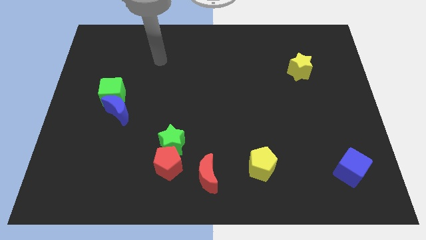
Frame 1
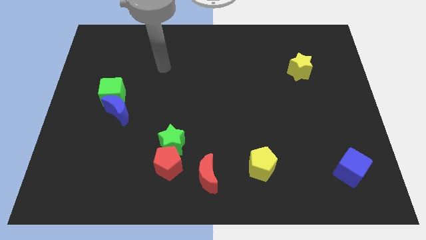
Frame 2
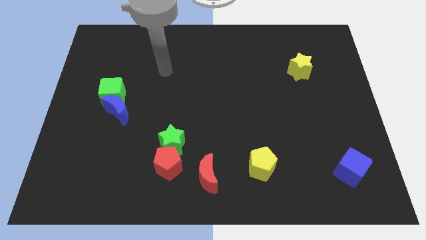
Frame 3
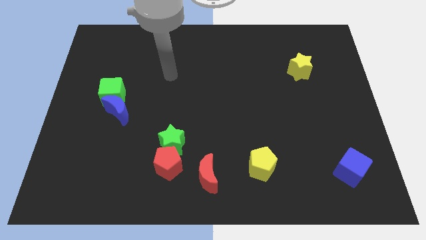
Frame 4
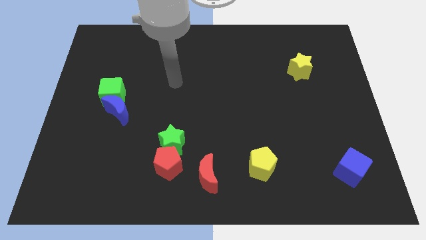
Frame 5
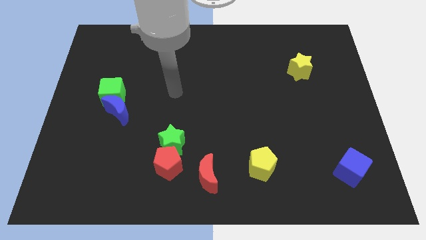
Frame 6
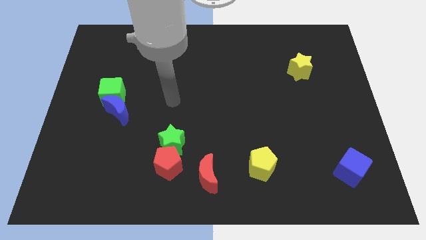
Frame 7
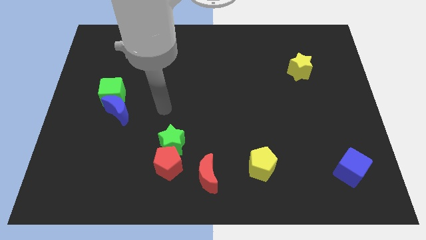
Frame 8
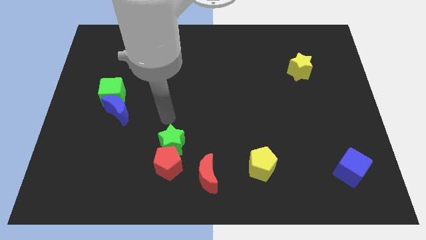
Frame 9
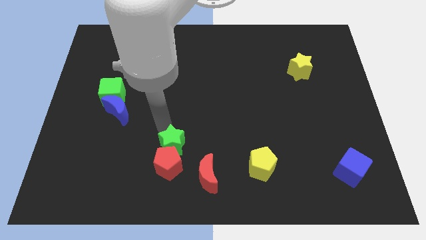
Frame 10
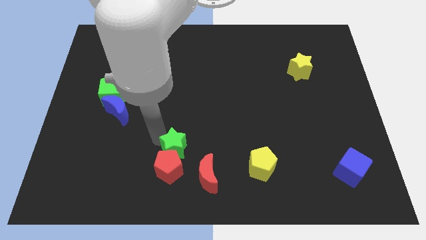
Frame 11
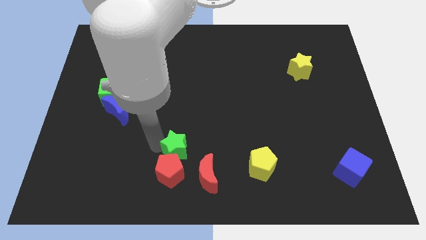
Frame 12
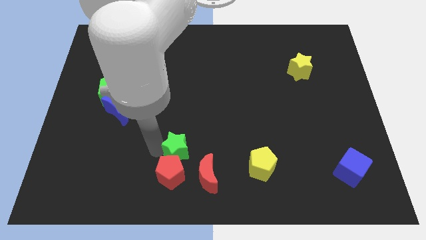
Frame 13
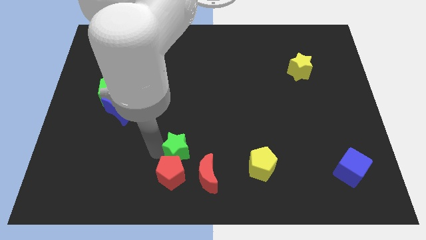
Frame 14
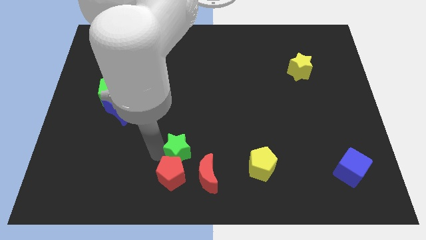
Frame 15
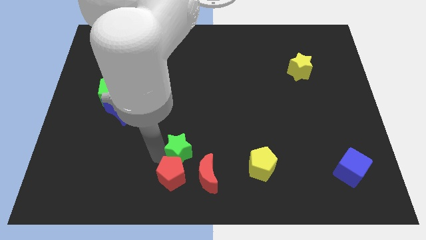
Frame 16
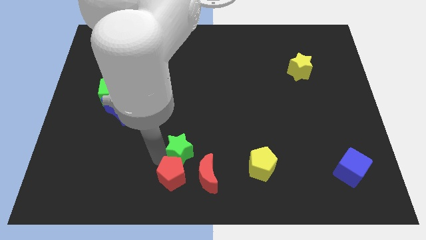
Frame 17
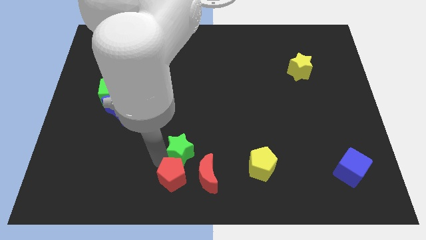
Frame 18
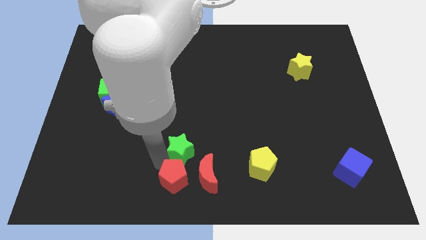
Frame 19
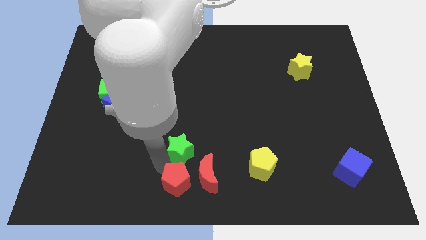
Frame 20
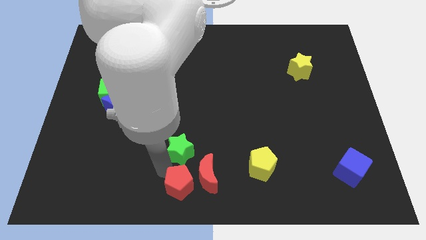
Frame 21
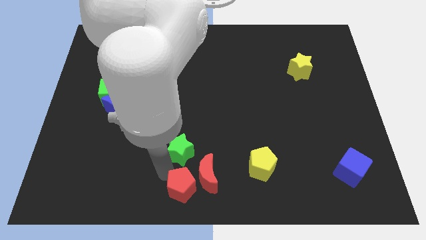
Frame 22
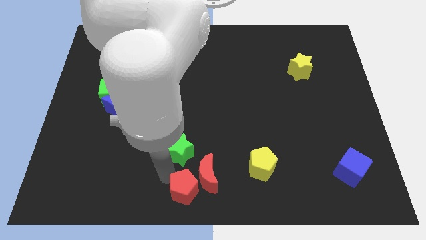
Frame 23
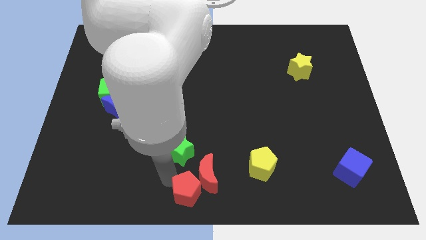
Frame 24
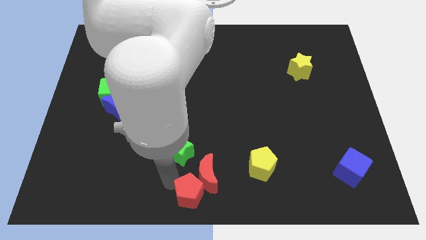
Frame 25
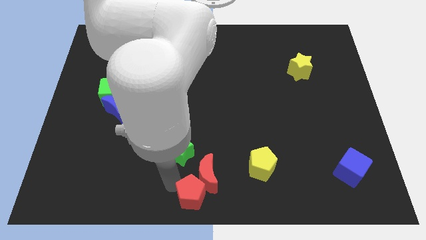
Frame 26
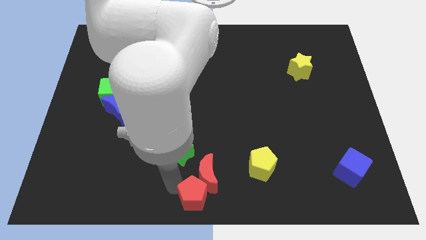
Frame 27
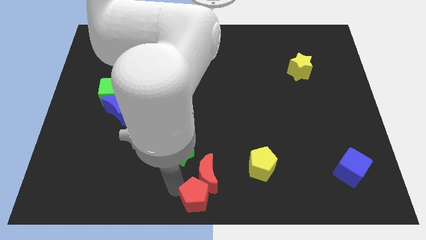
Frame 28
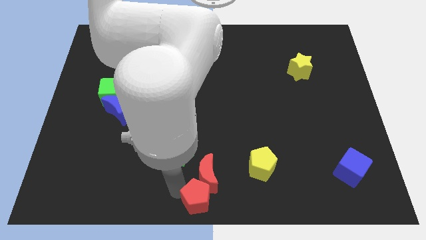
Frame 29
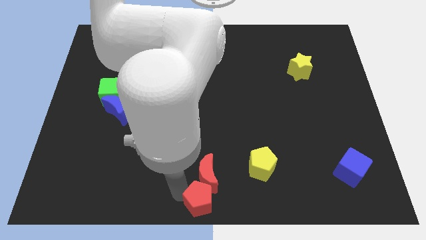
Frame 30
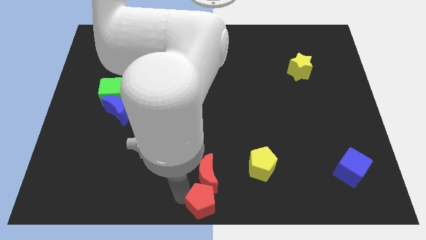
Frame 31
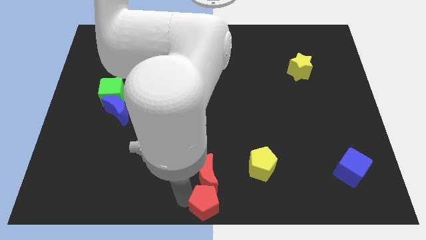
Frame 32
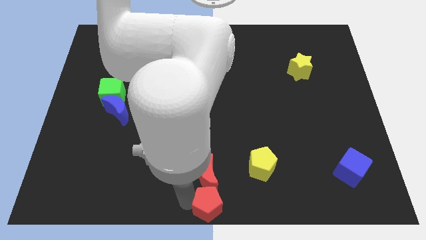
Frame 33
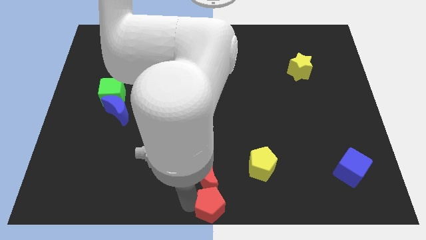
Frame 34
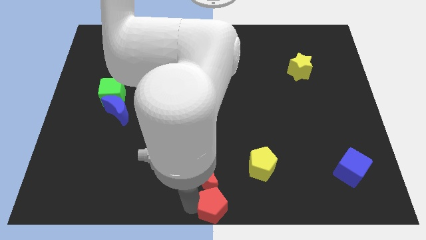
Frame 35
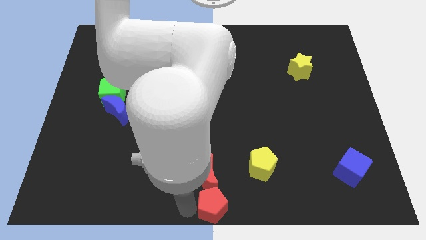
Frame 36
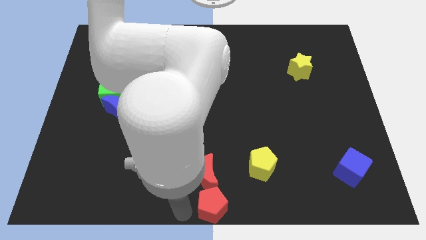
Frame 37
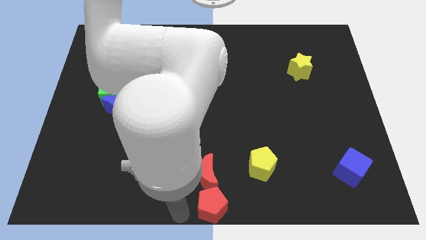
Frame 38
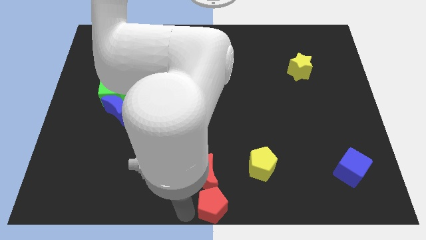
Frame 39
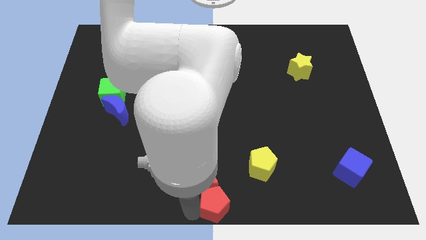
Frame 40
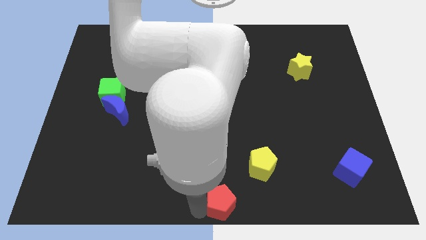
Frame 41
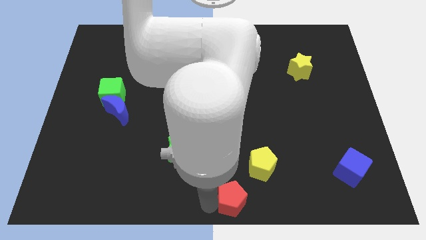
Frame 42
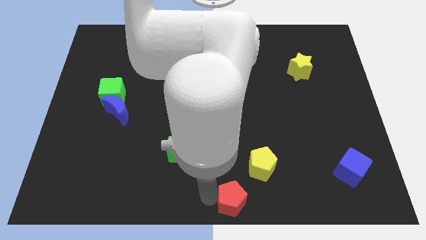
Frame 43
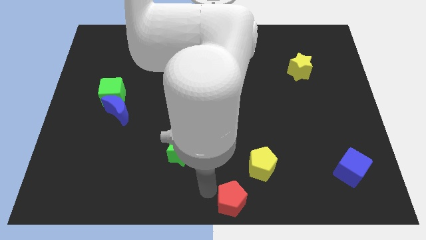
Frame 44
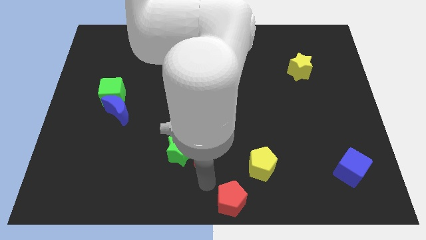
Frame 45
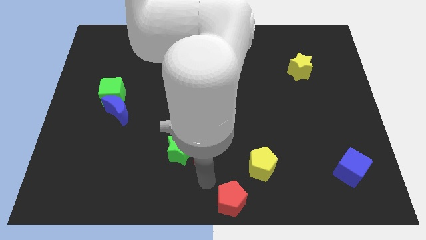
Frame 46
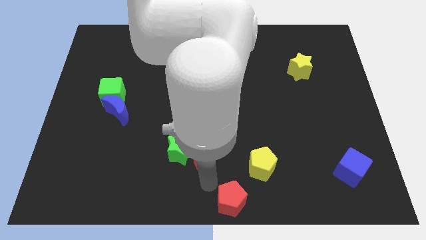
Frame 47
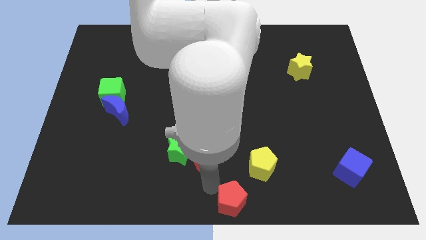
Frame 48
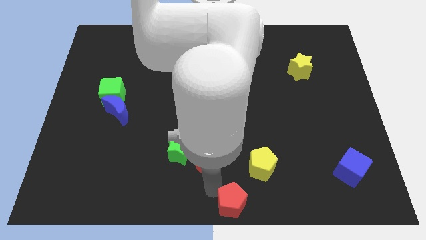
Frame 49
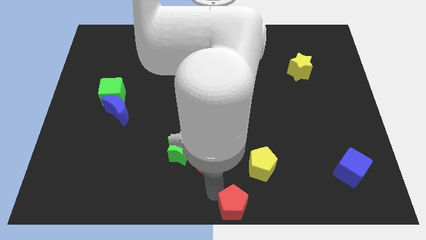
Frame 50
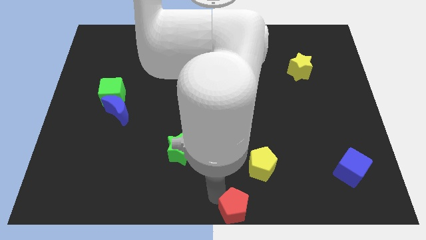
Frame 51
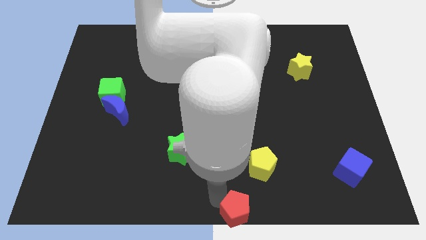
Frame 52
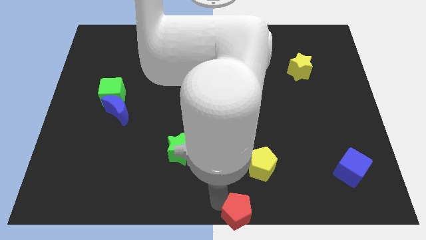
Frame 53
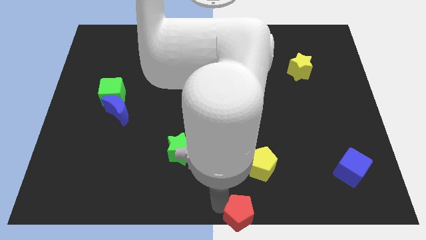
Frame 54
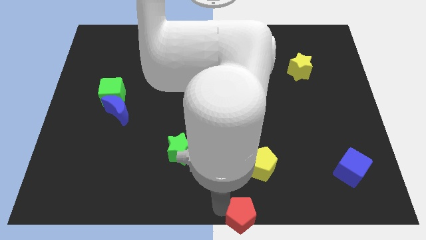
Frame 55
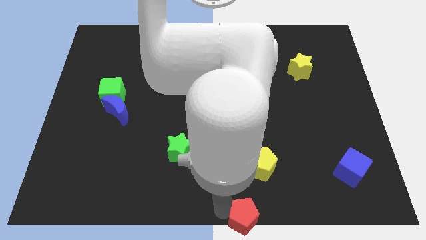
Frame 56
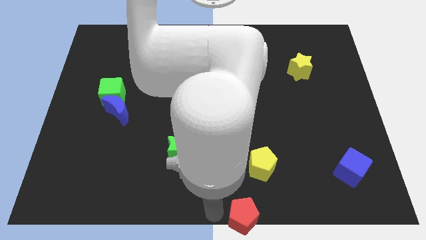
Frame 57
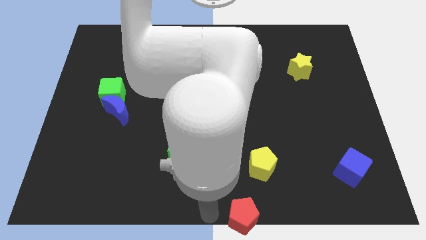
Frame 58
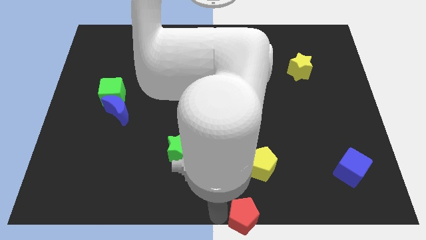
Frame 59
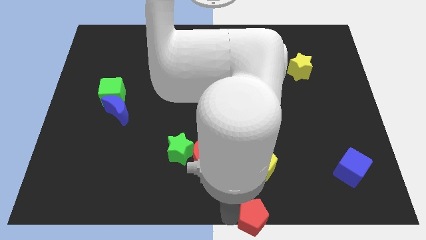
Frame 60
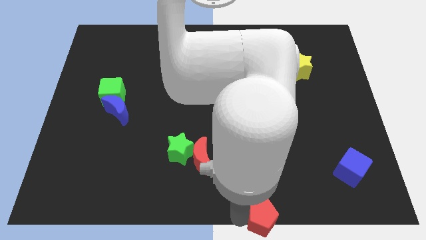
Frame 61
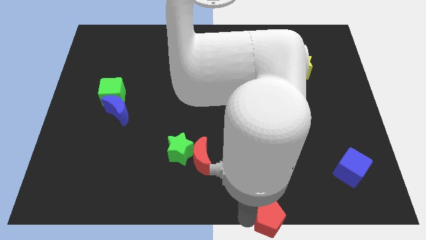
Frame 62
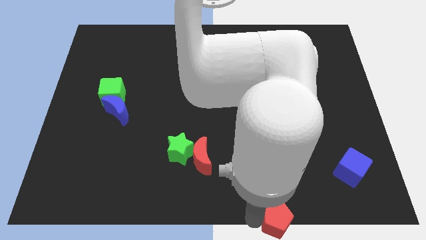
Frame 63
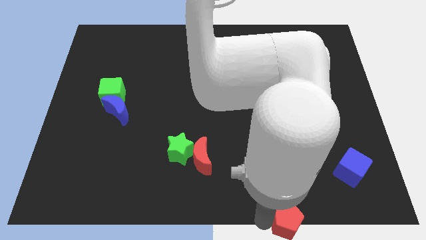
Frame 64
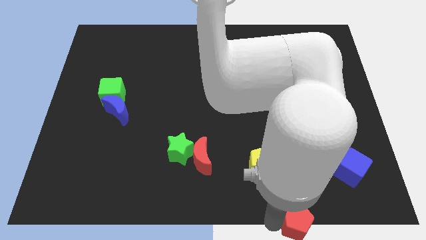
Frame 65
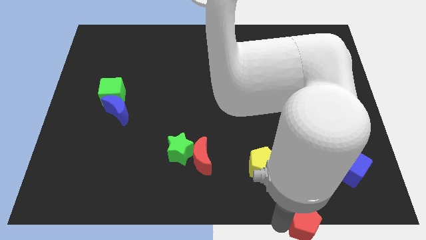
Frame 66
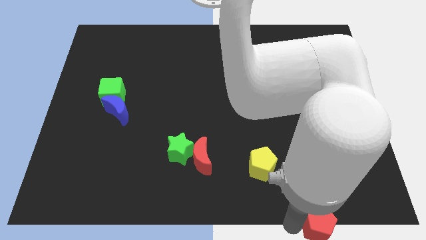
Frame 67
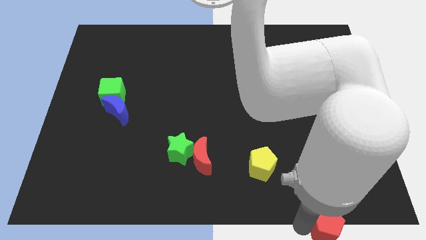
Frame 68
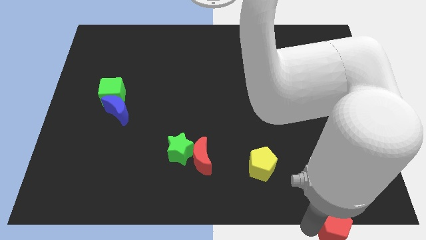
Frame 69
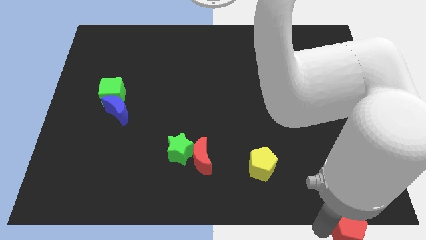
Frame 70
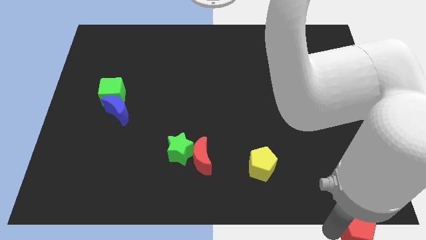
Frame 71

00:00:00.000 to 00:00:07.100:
slide the red pentagon to the bottom right
